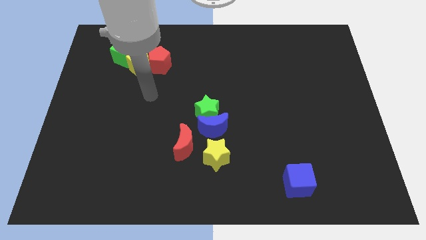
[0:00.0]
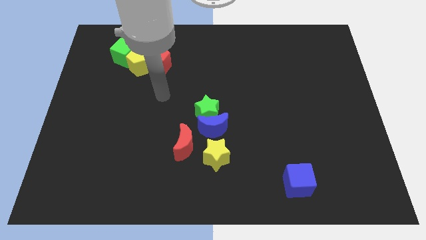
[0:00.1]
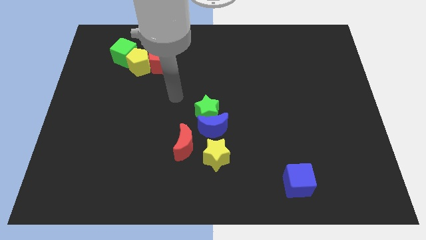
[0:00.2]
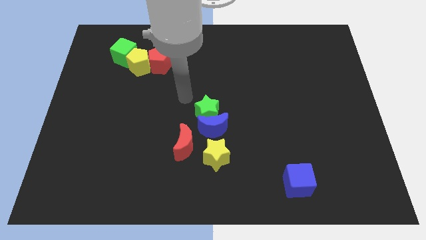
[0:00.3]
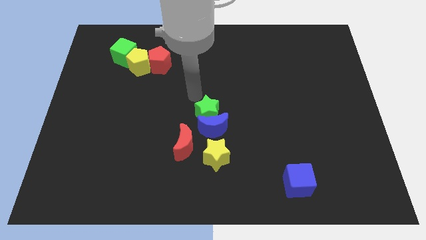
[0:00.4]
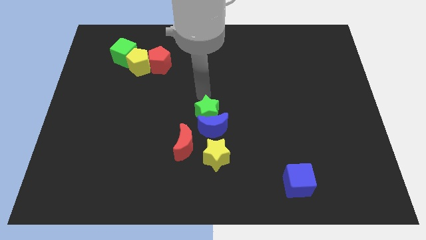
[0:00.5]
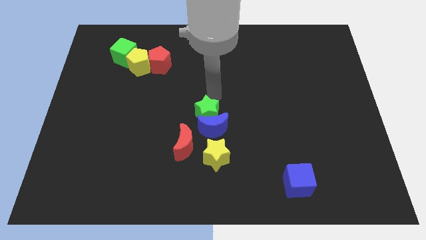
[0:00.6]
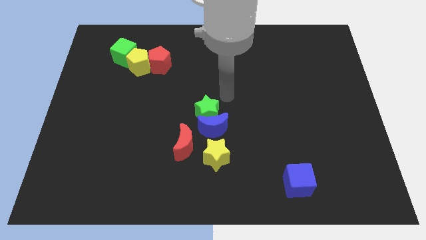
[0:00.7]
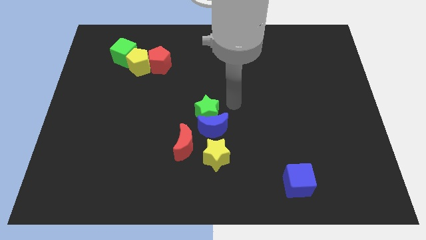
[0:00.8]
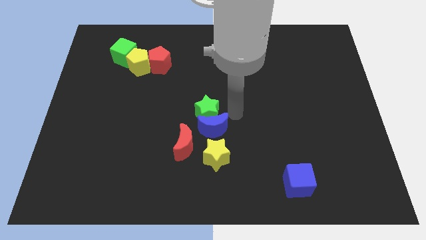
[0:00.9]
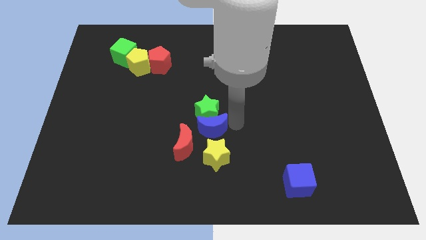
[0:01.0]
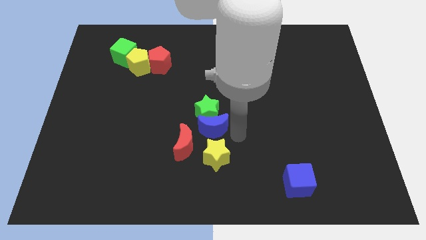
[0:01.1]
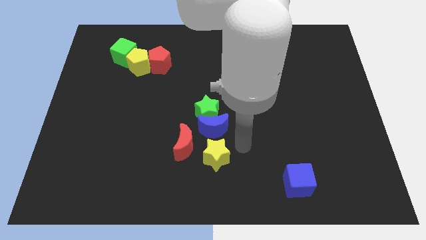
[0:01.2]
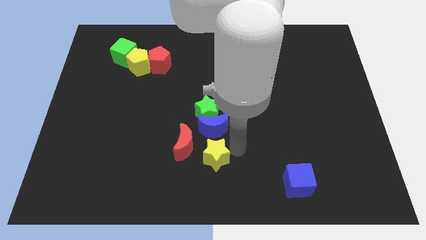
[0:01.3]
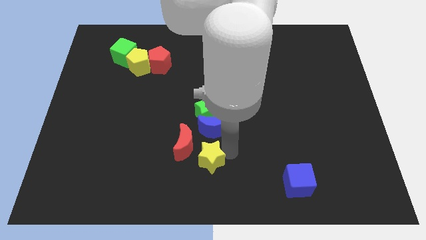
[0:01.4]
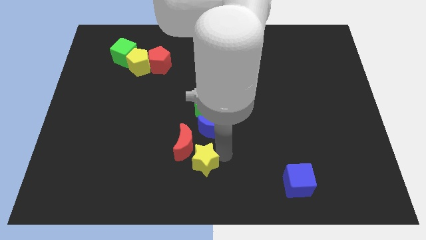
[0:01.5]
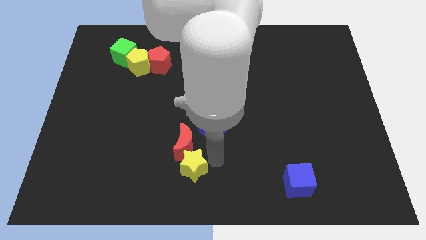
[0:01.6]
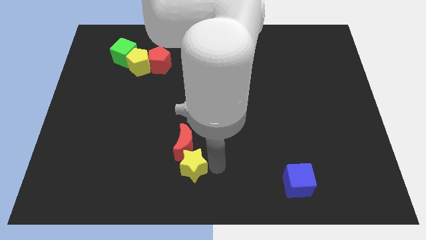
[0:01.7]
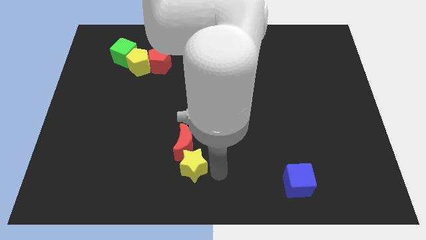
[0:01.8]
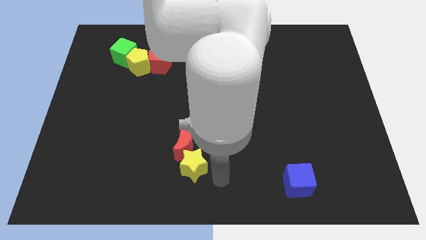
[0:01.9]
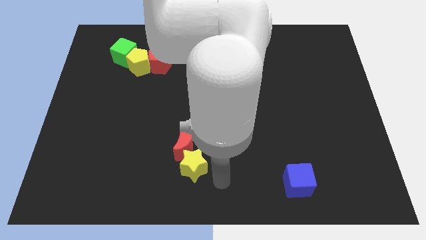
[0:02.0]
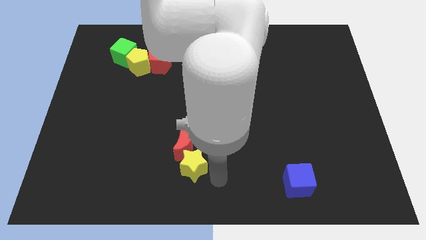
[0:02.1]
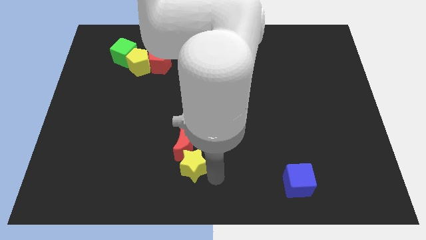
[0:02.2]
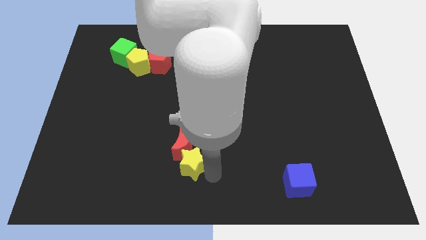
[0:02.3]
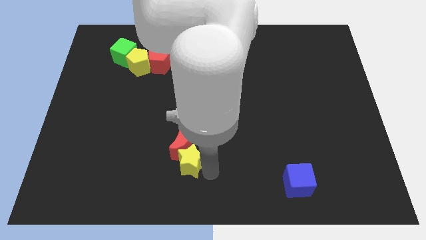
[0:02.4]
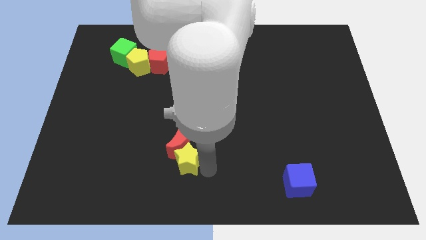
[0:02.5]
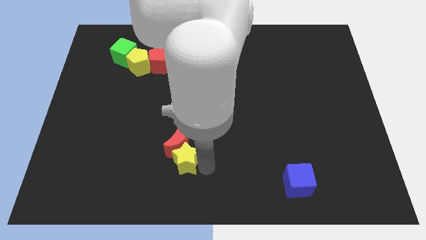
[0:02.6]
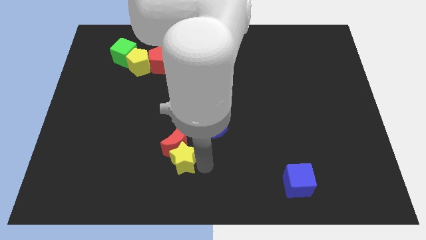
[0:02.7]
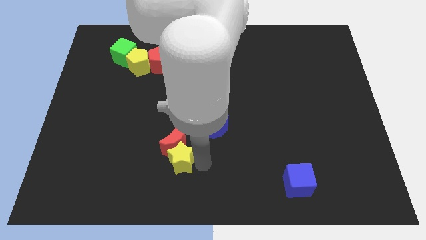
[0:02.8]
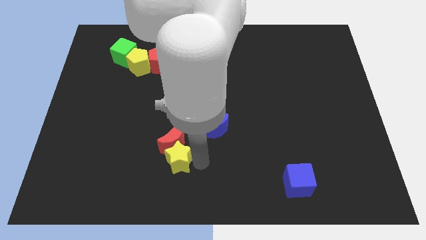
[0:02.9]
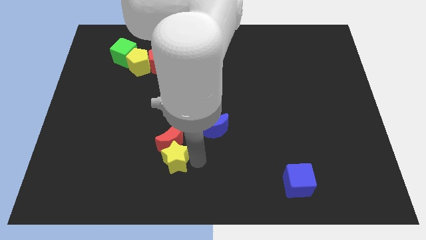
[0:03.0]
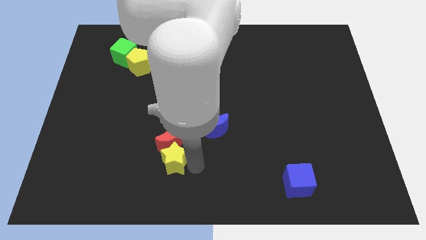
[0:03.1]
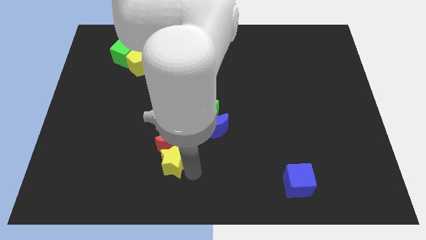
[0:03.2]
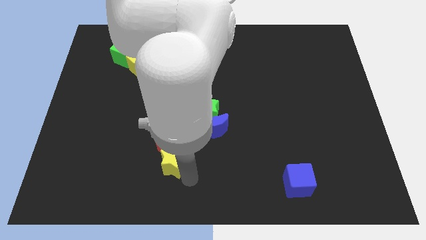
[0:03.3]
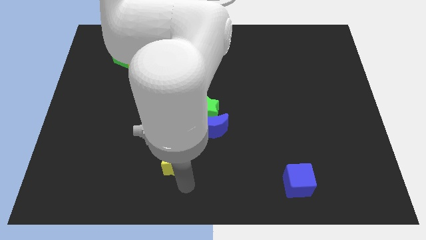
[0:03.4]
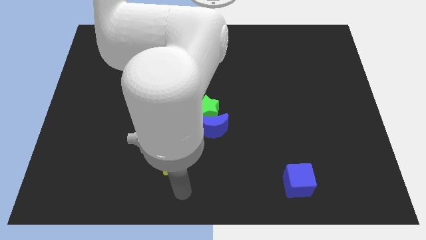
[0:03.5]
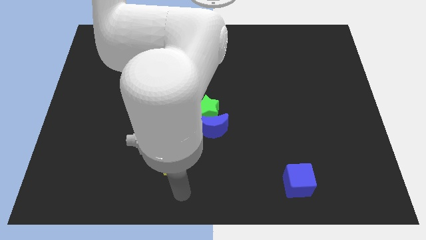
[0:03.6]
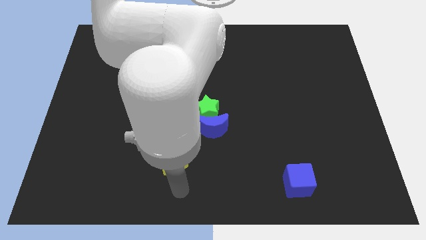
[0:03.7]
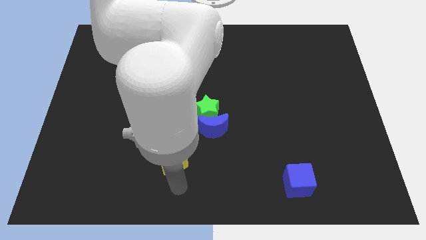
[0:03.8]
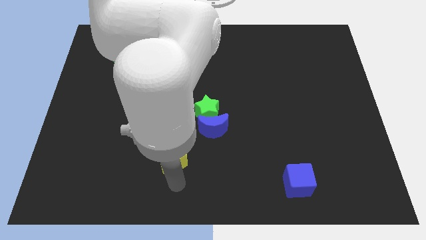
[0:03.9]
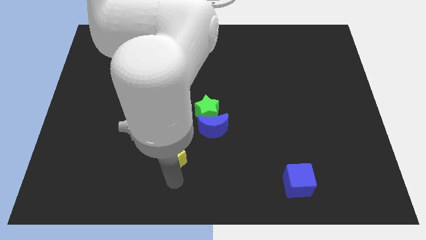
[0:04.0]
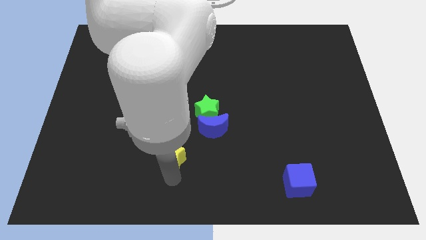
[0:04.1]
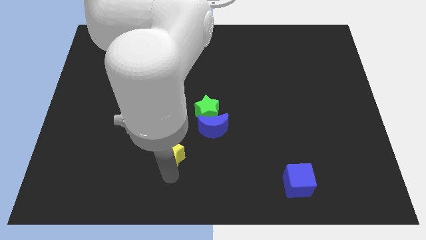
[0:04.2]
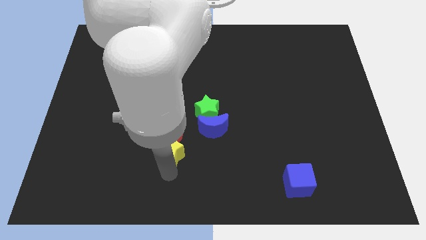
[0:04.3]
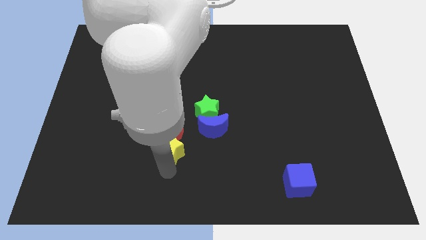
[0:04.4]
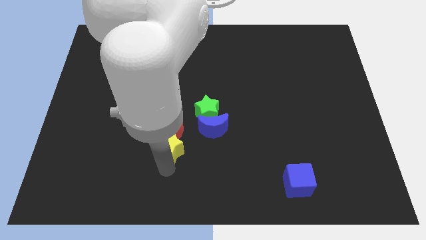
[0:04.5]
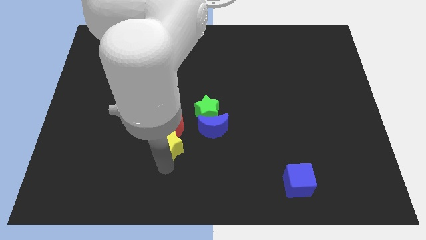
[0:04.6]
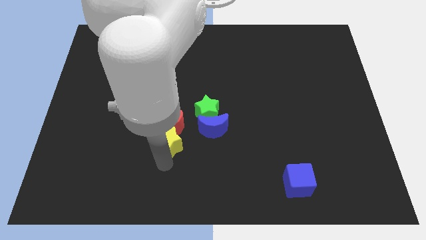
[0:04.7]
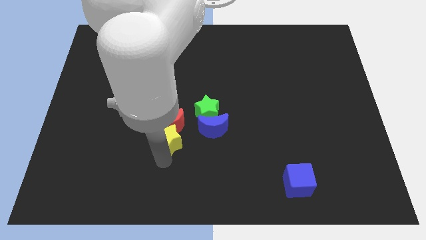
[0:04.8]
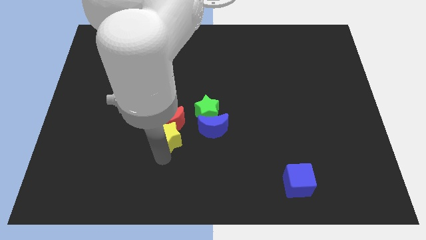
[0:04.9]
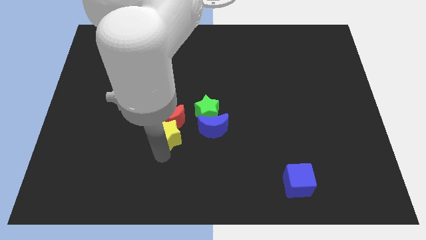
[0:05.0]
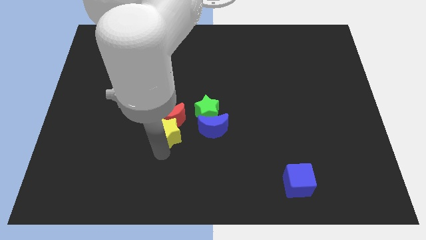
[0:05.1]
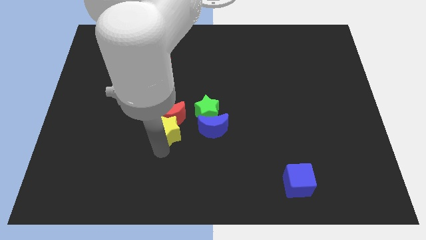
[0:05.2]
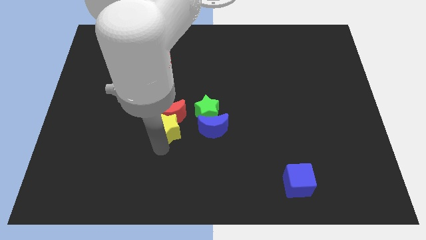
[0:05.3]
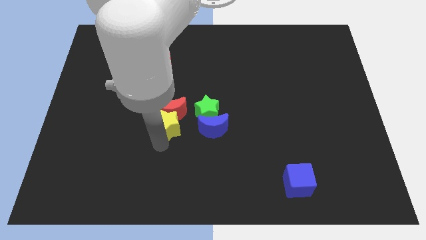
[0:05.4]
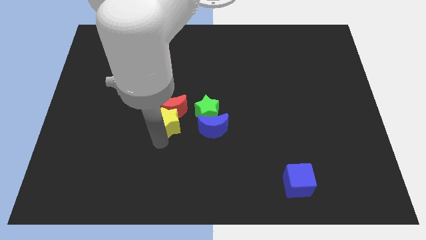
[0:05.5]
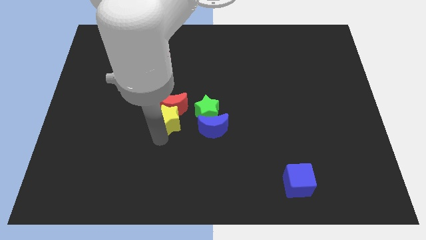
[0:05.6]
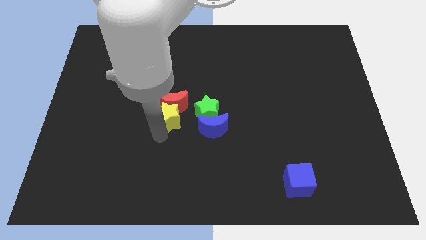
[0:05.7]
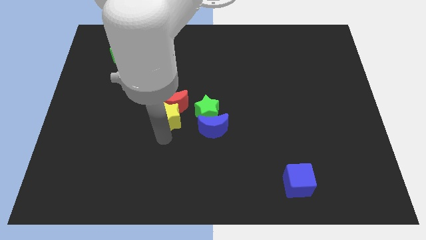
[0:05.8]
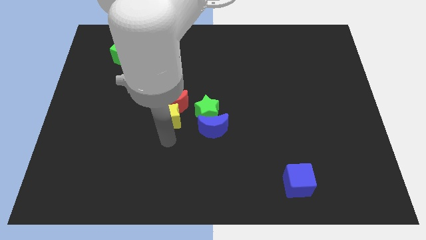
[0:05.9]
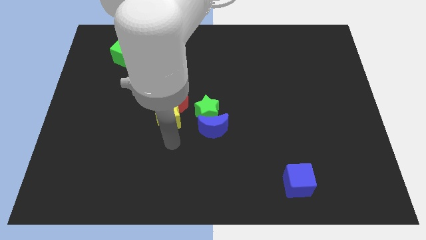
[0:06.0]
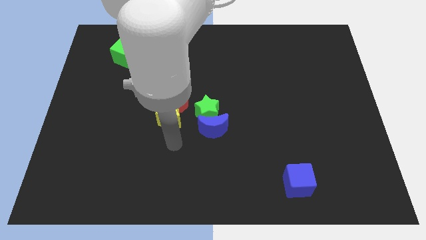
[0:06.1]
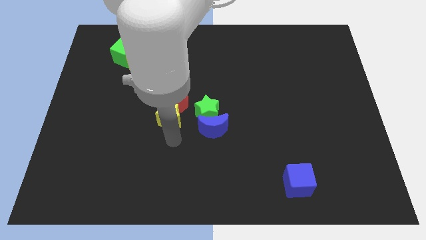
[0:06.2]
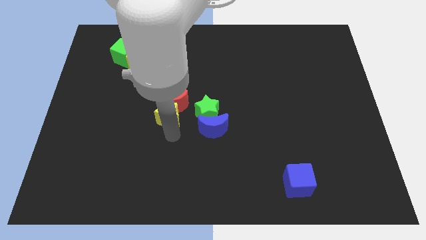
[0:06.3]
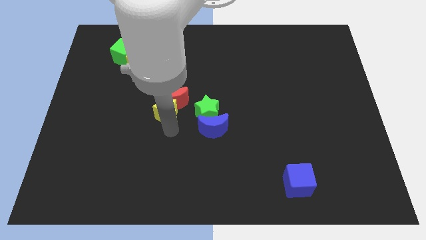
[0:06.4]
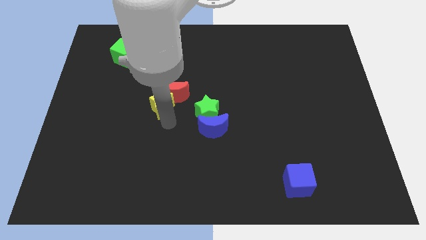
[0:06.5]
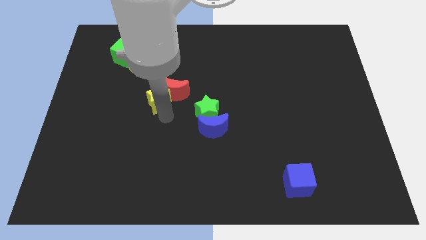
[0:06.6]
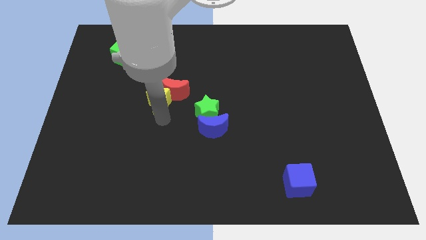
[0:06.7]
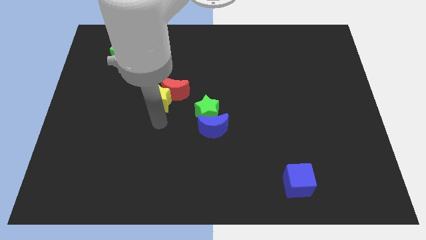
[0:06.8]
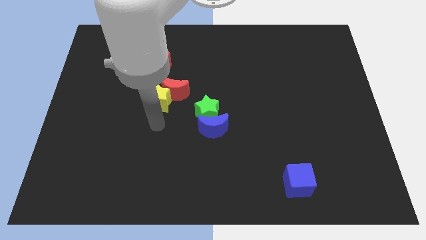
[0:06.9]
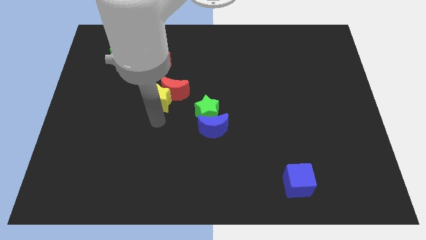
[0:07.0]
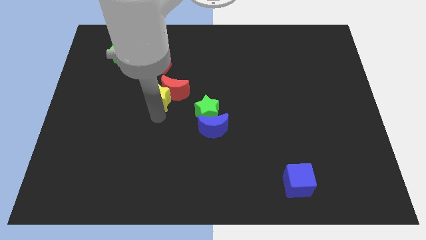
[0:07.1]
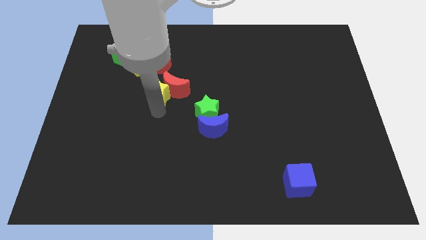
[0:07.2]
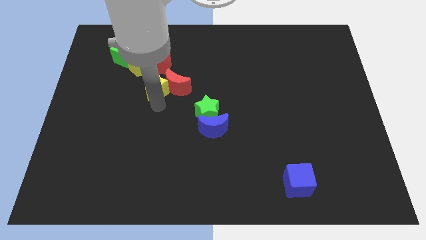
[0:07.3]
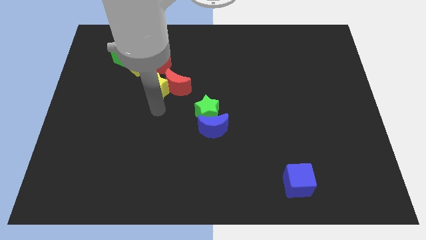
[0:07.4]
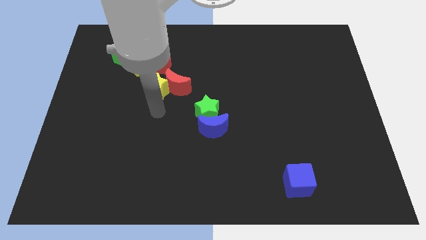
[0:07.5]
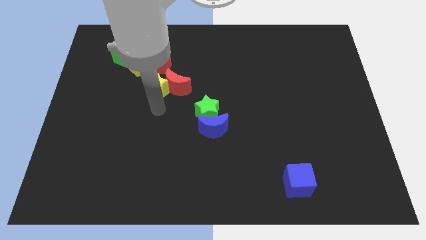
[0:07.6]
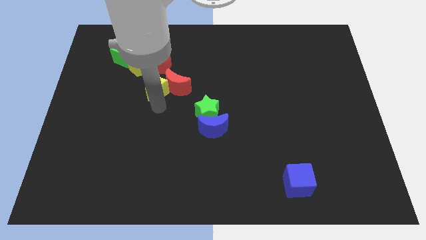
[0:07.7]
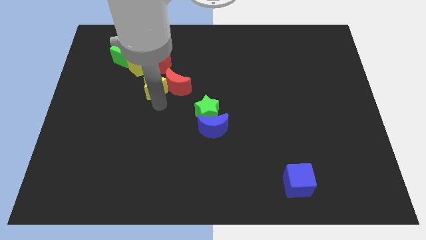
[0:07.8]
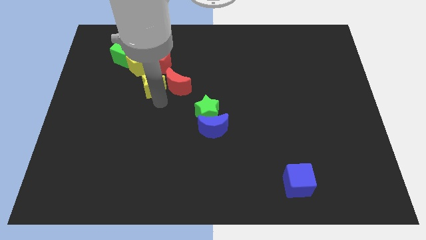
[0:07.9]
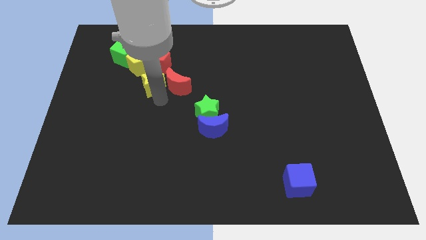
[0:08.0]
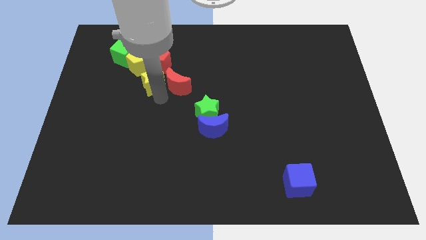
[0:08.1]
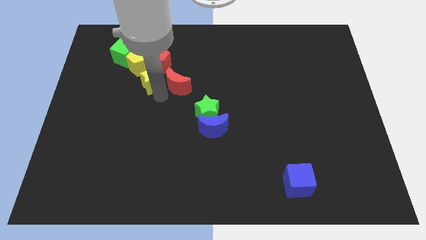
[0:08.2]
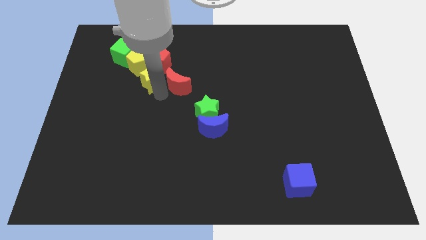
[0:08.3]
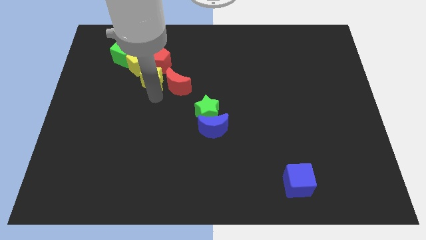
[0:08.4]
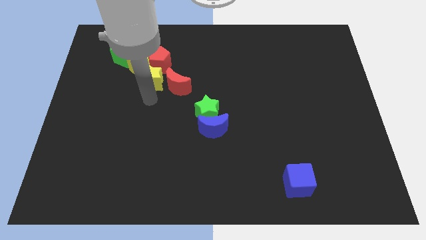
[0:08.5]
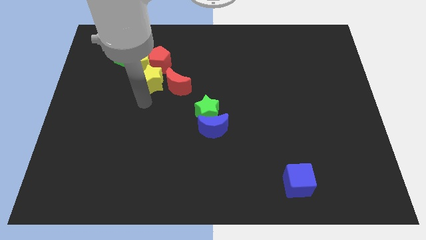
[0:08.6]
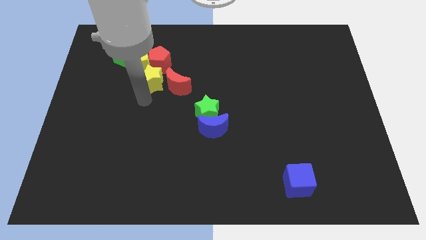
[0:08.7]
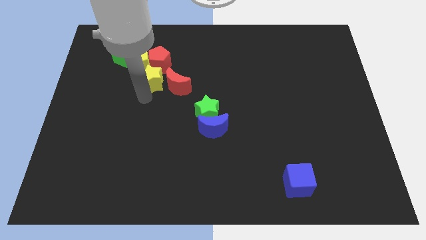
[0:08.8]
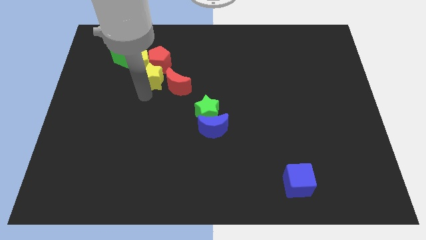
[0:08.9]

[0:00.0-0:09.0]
push the yellow star towards the red pentagon
